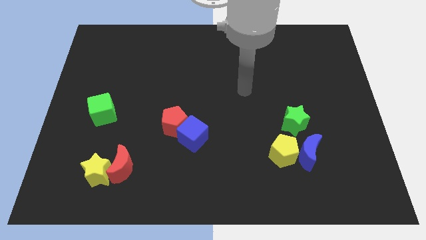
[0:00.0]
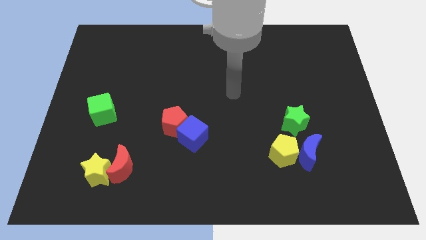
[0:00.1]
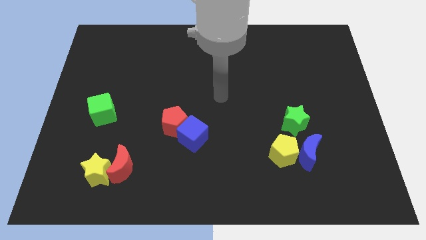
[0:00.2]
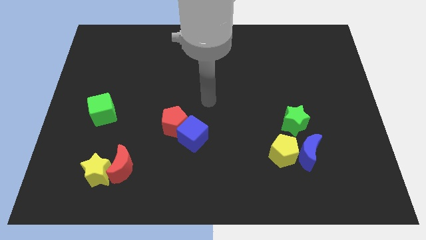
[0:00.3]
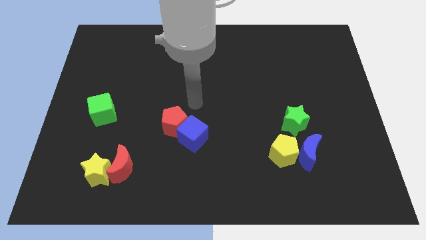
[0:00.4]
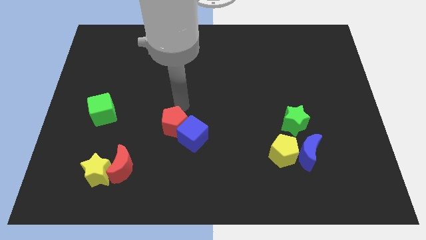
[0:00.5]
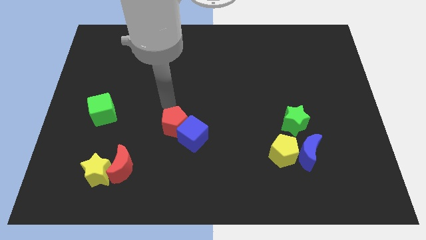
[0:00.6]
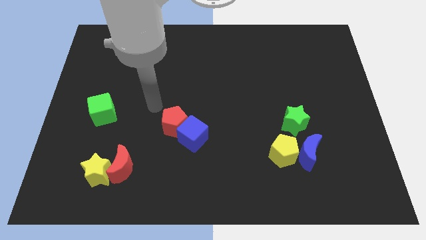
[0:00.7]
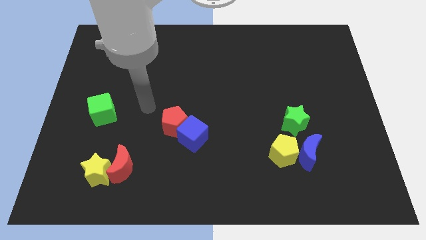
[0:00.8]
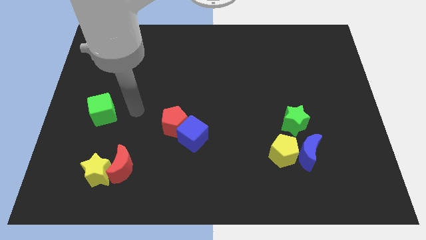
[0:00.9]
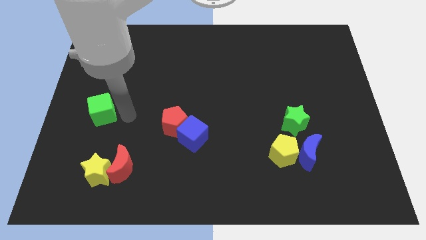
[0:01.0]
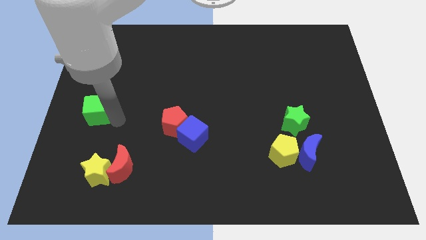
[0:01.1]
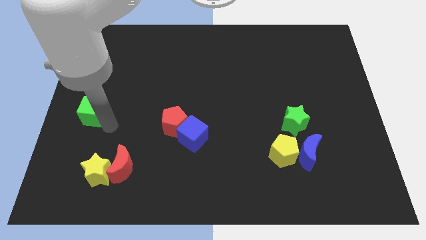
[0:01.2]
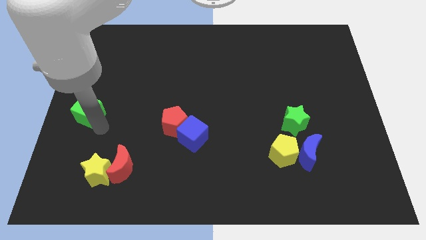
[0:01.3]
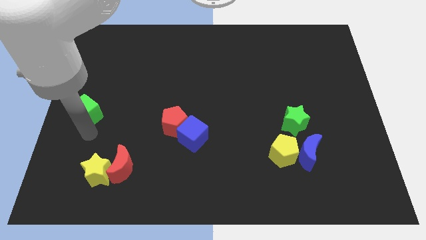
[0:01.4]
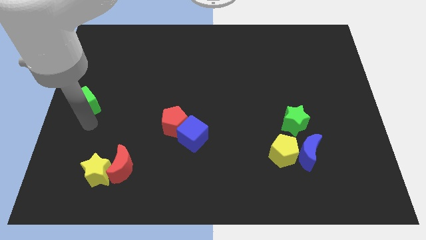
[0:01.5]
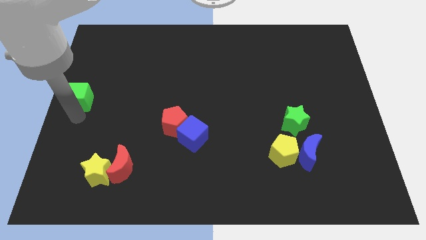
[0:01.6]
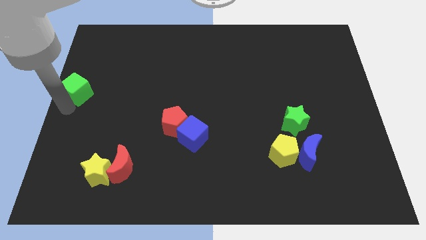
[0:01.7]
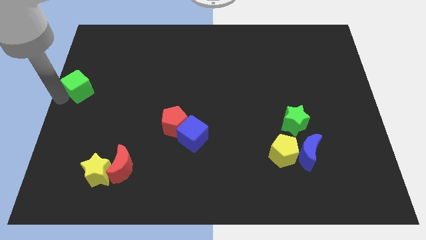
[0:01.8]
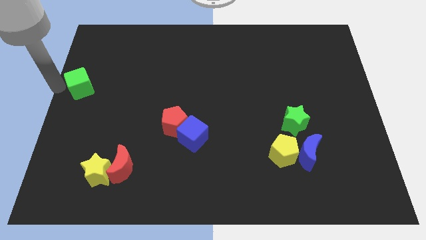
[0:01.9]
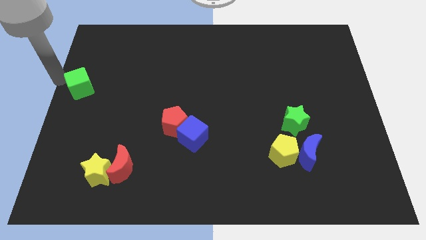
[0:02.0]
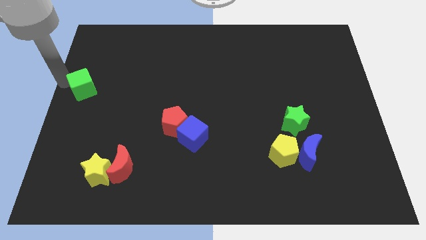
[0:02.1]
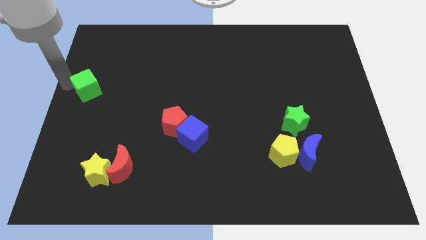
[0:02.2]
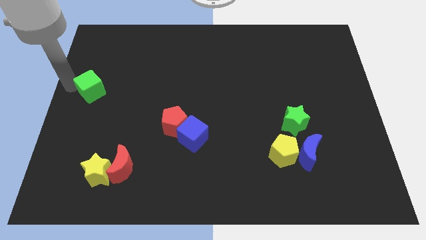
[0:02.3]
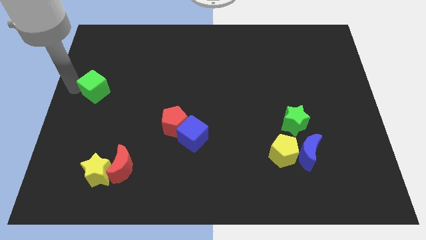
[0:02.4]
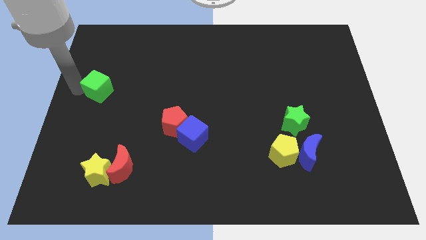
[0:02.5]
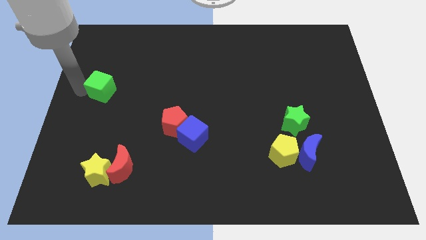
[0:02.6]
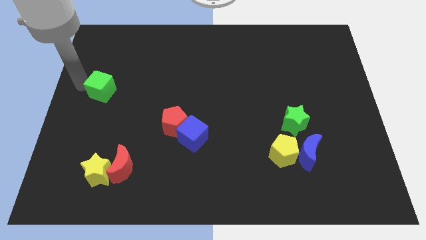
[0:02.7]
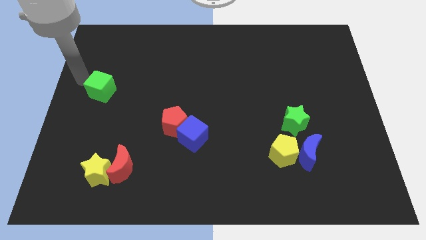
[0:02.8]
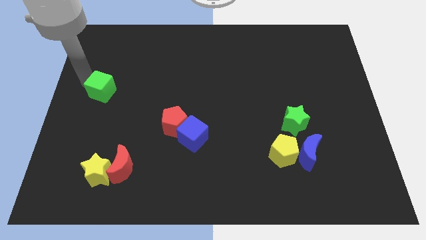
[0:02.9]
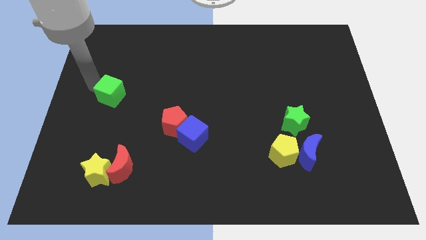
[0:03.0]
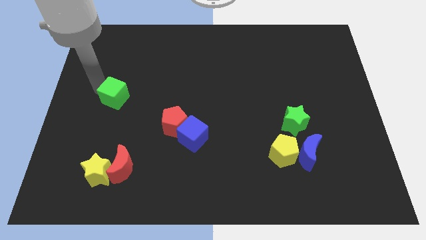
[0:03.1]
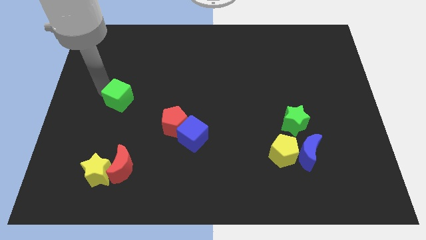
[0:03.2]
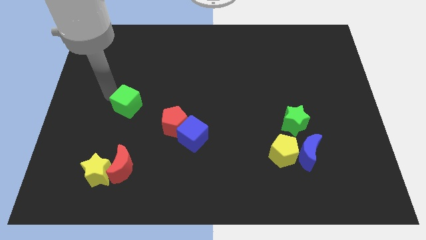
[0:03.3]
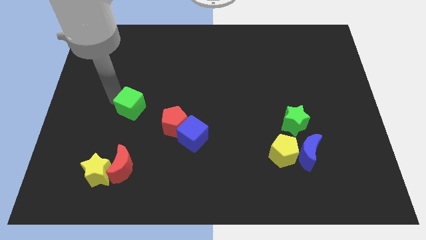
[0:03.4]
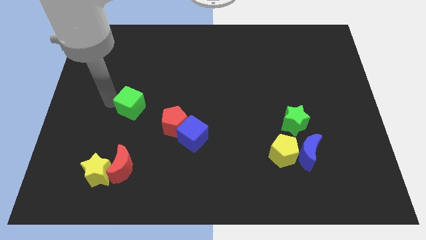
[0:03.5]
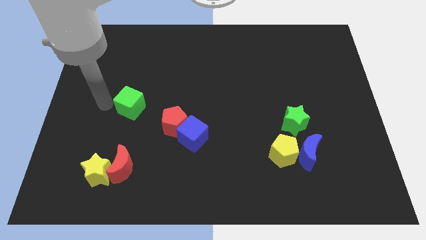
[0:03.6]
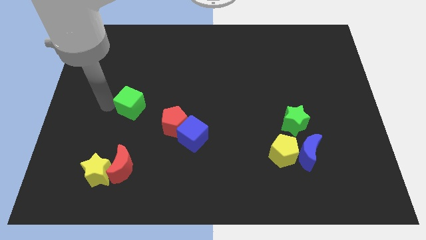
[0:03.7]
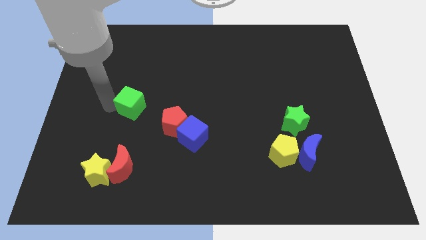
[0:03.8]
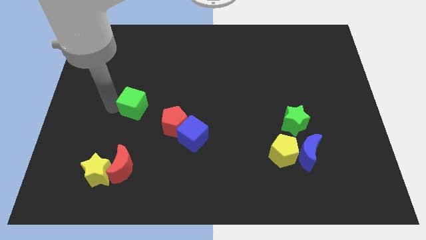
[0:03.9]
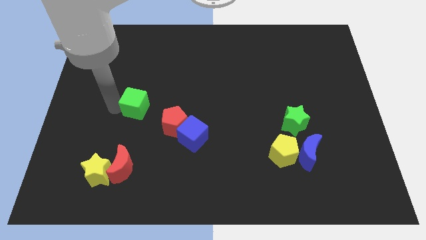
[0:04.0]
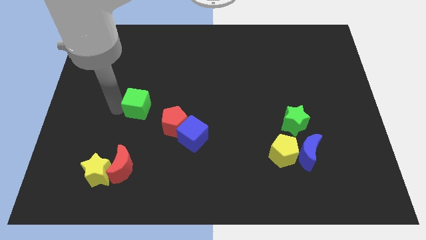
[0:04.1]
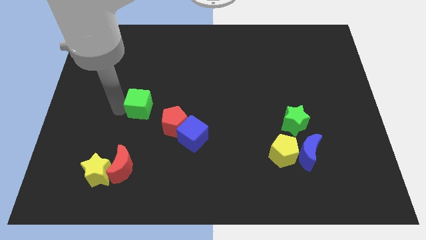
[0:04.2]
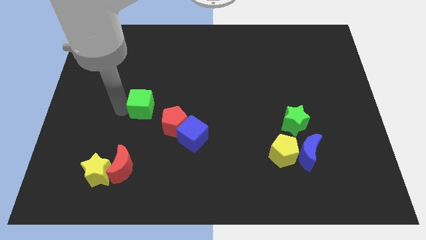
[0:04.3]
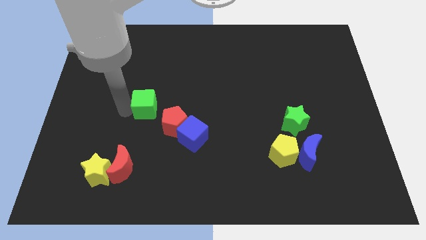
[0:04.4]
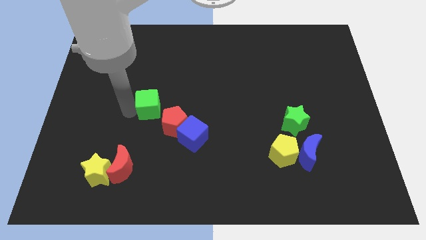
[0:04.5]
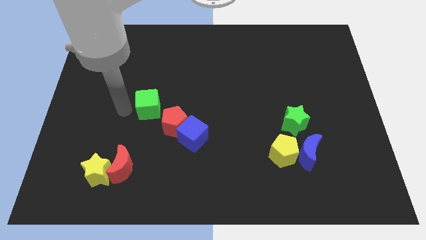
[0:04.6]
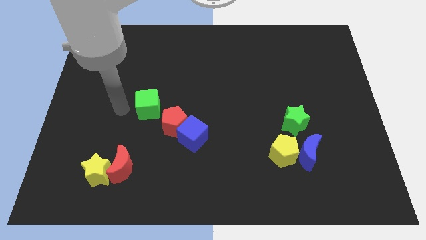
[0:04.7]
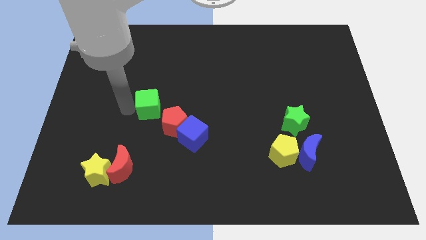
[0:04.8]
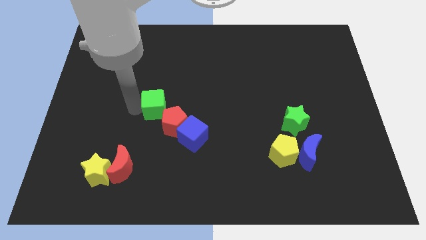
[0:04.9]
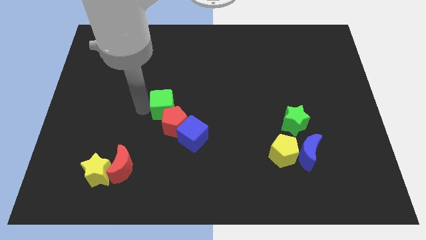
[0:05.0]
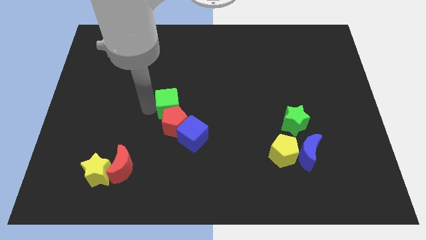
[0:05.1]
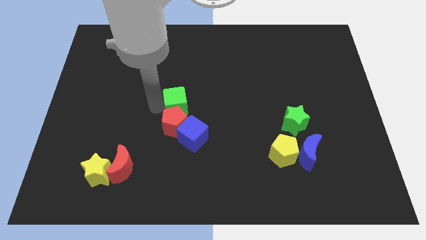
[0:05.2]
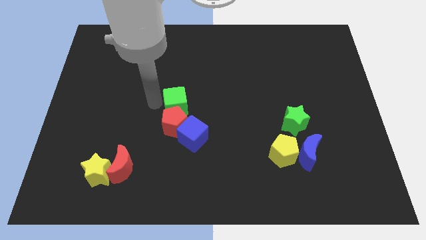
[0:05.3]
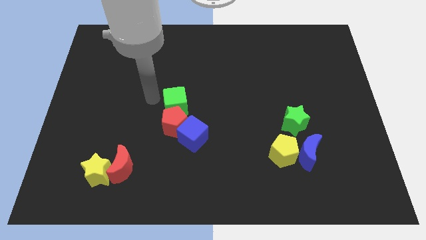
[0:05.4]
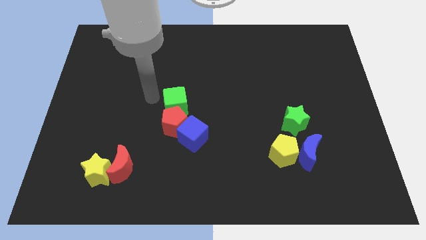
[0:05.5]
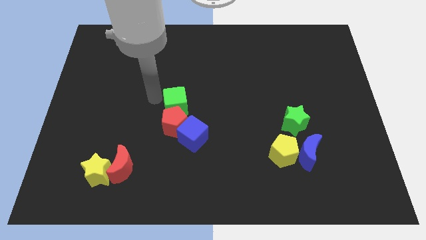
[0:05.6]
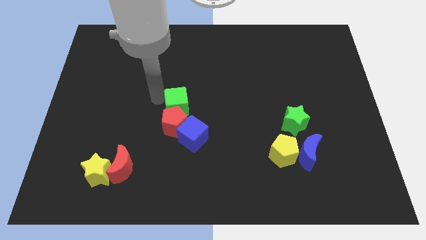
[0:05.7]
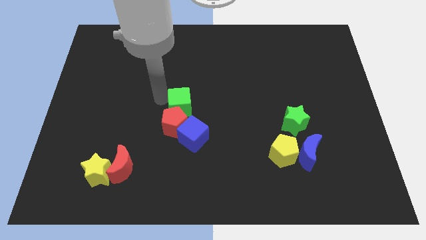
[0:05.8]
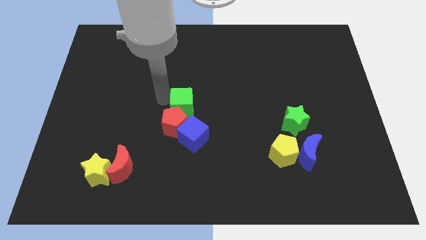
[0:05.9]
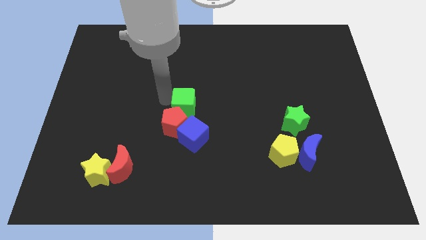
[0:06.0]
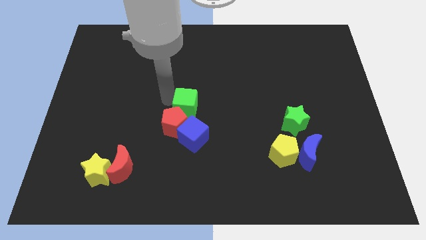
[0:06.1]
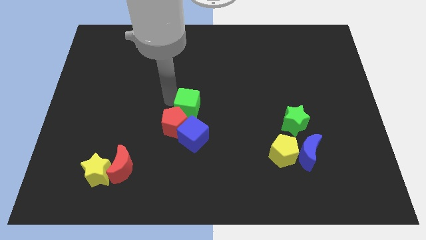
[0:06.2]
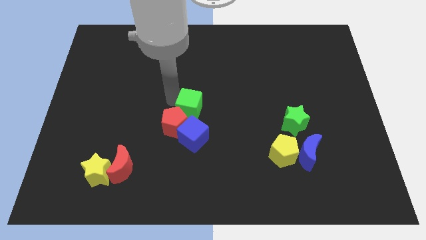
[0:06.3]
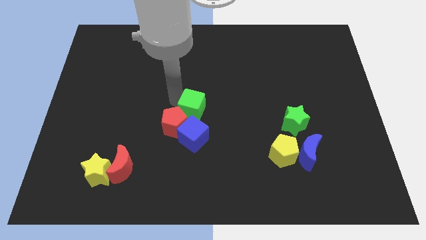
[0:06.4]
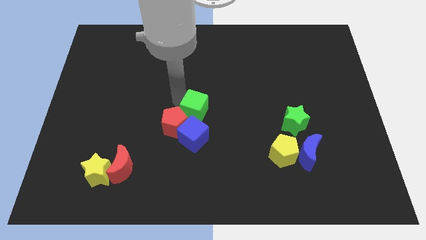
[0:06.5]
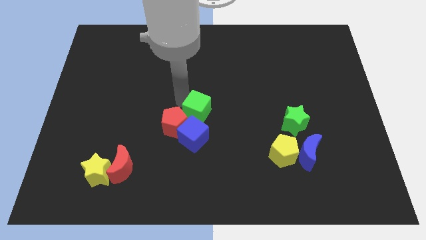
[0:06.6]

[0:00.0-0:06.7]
push the green cube to the top right of the blue cube

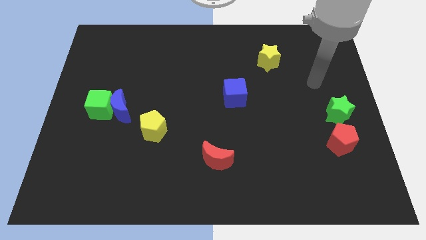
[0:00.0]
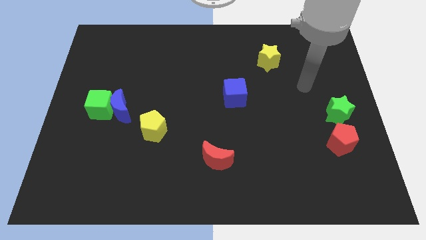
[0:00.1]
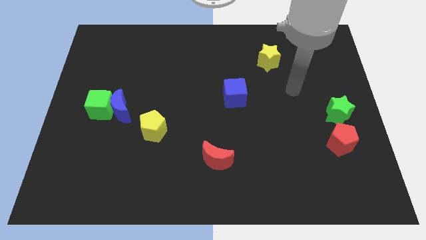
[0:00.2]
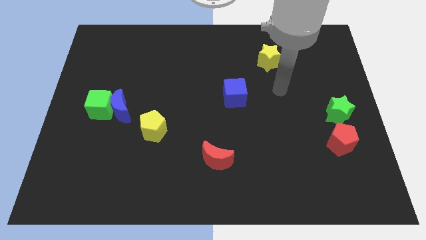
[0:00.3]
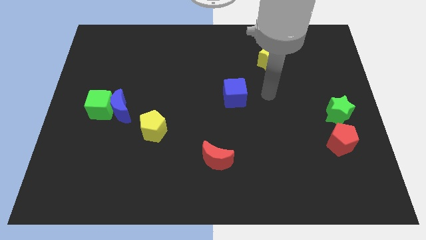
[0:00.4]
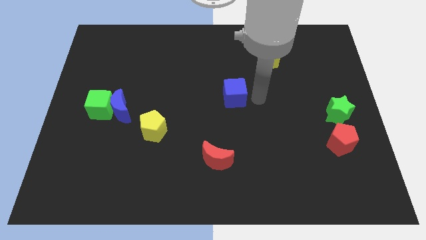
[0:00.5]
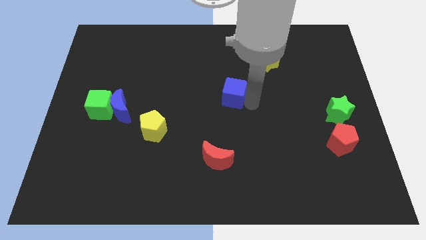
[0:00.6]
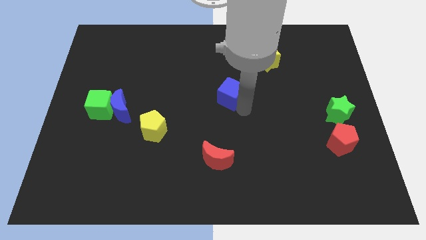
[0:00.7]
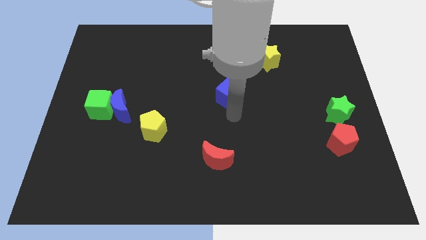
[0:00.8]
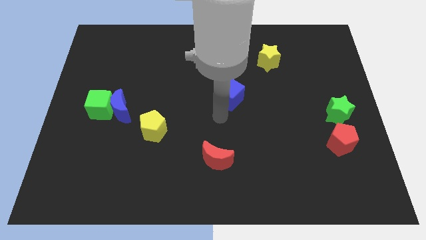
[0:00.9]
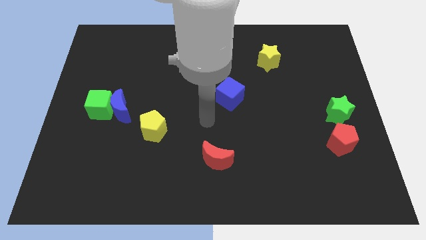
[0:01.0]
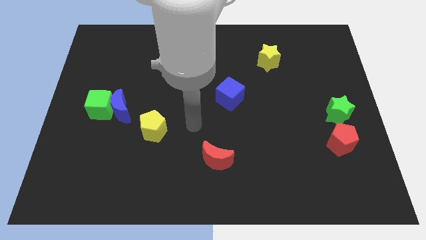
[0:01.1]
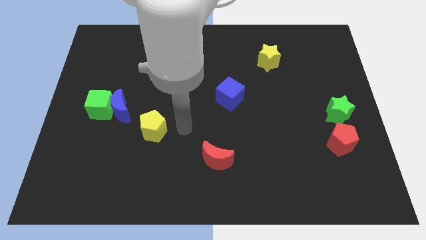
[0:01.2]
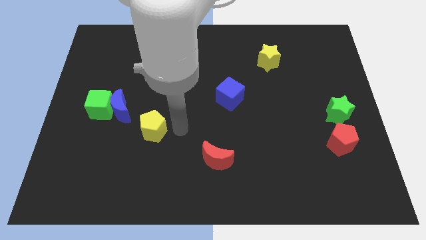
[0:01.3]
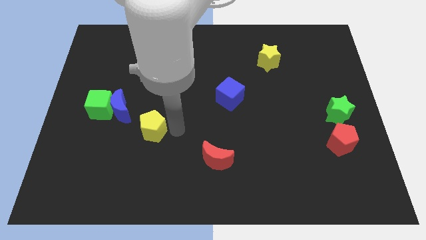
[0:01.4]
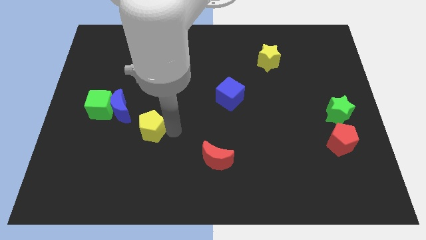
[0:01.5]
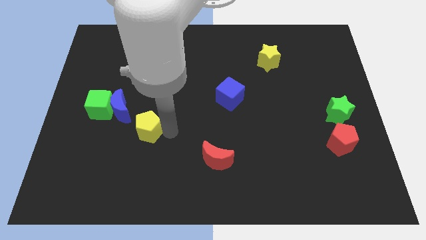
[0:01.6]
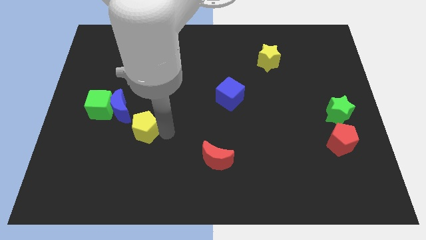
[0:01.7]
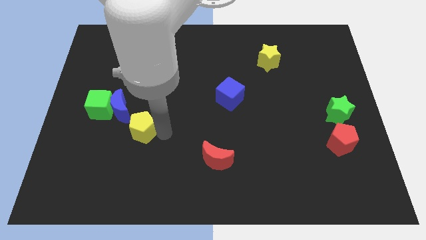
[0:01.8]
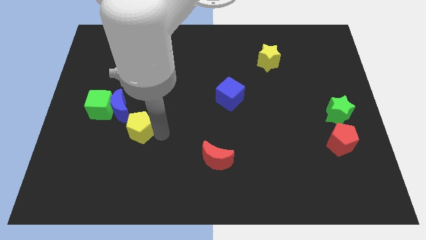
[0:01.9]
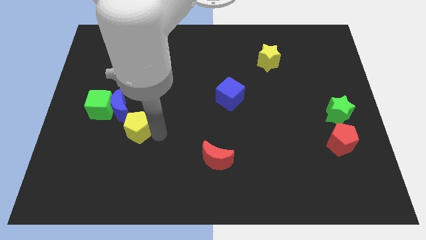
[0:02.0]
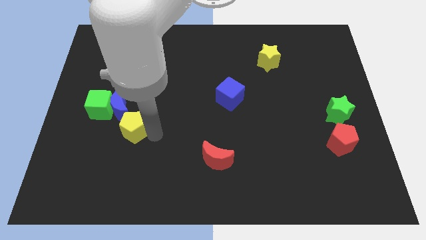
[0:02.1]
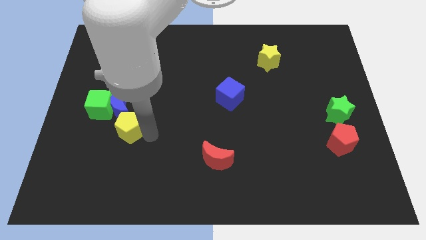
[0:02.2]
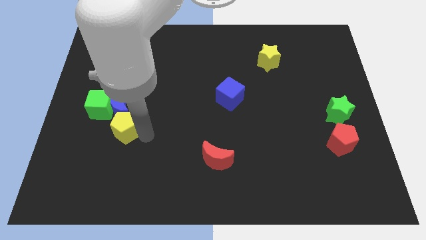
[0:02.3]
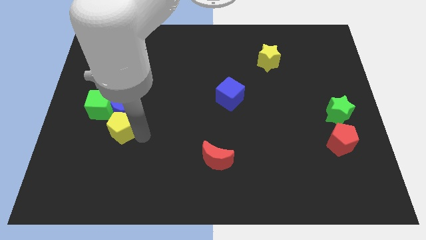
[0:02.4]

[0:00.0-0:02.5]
push the yellow pentagon to the bottom left side of the blue moon
